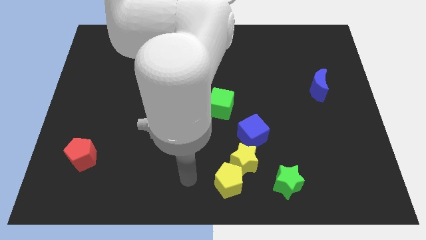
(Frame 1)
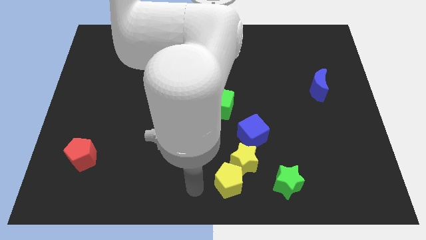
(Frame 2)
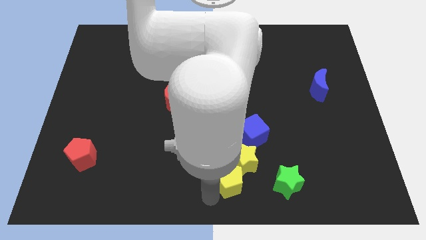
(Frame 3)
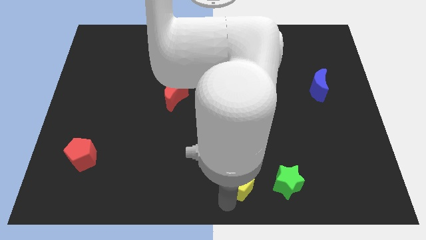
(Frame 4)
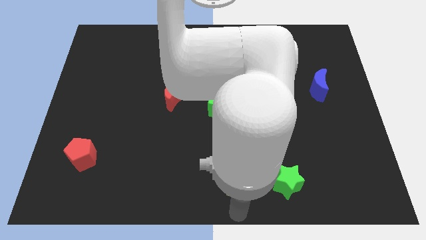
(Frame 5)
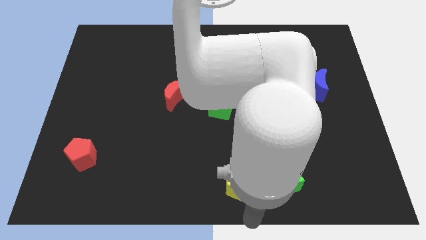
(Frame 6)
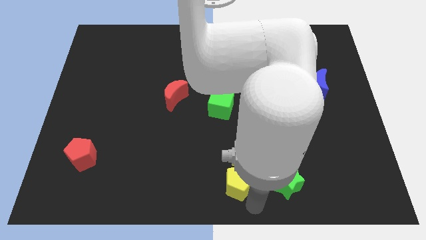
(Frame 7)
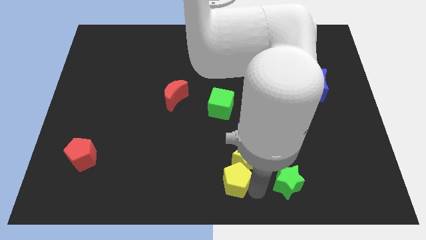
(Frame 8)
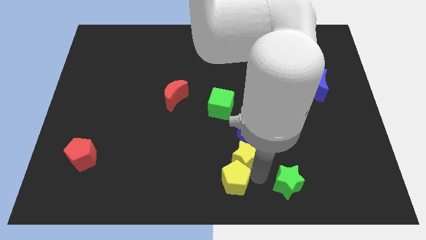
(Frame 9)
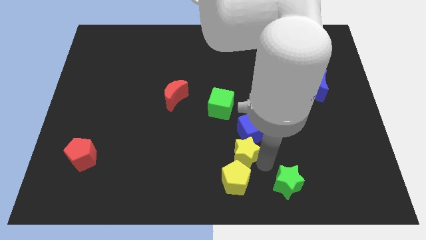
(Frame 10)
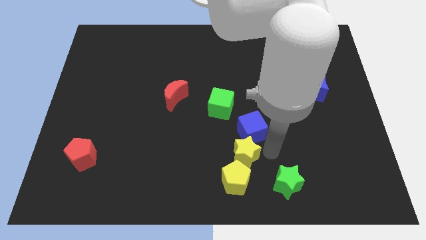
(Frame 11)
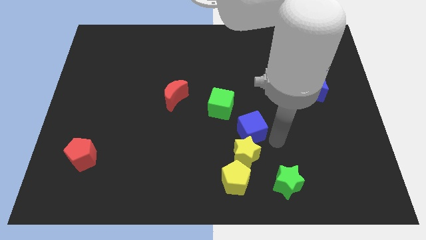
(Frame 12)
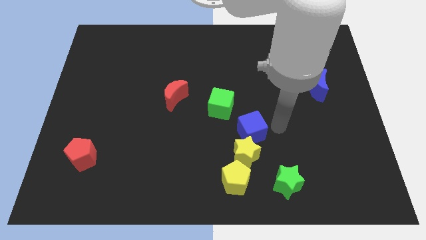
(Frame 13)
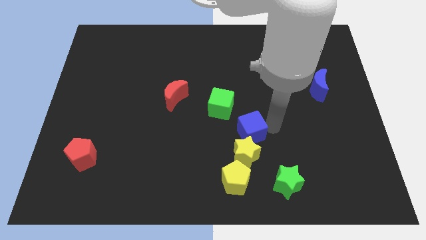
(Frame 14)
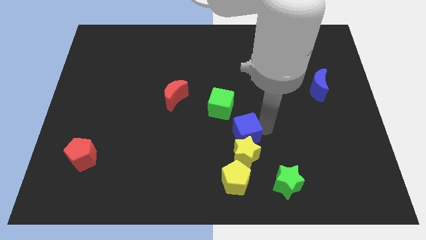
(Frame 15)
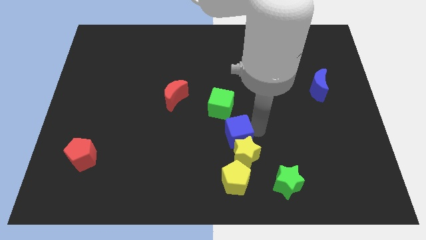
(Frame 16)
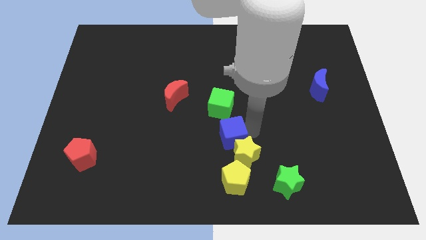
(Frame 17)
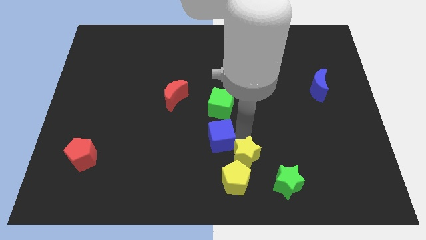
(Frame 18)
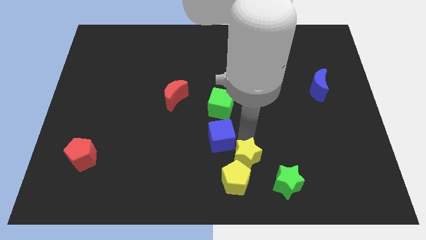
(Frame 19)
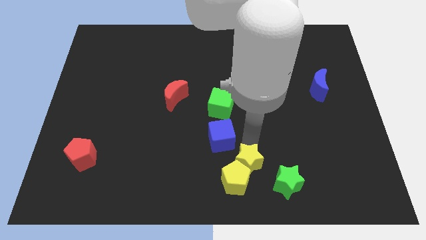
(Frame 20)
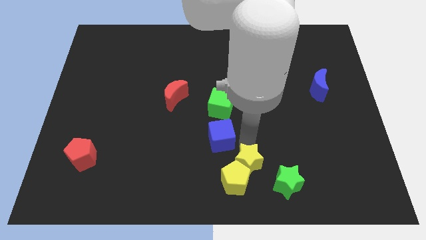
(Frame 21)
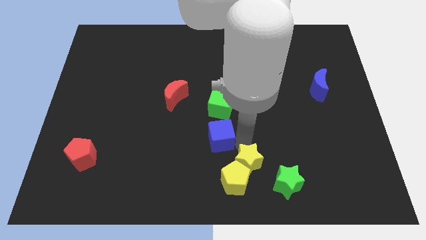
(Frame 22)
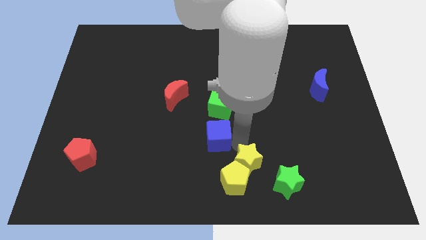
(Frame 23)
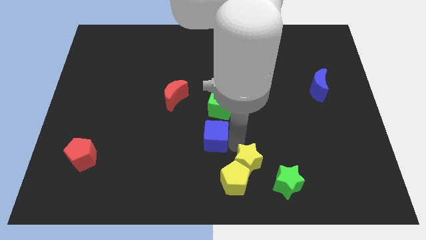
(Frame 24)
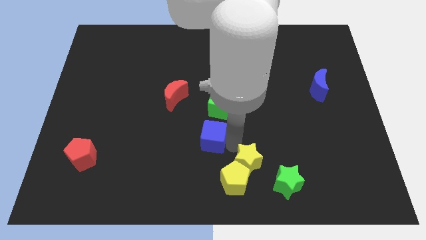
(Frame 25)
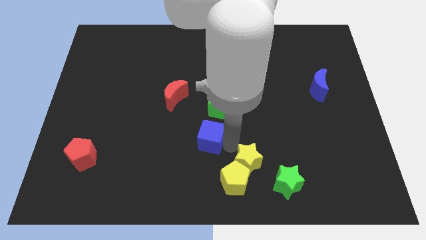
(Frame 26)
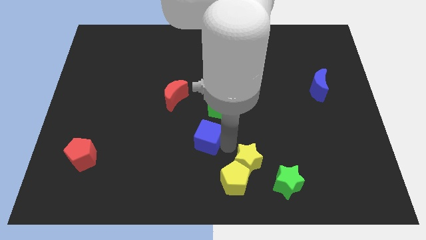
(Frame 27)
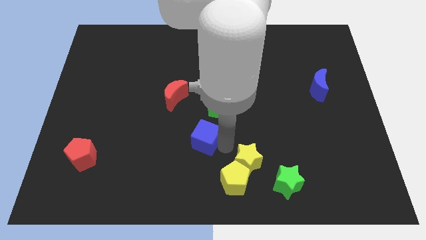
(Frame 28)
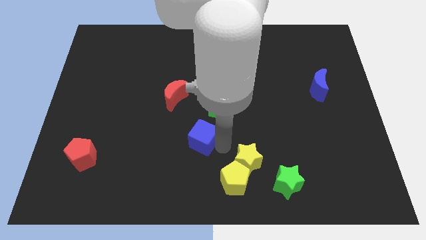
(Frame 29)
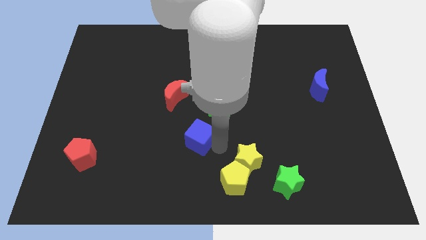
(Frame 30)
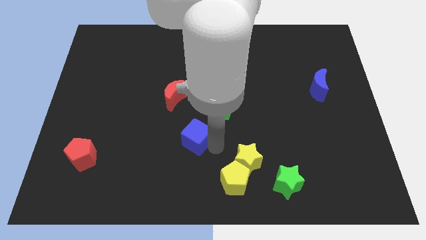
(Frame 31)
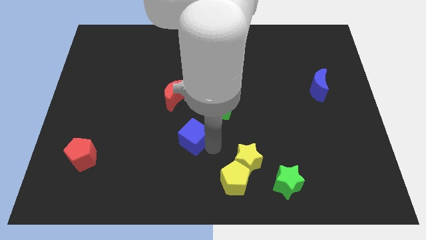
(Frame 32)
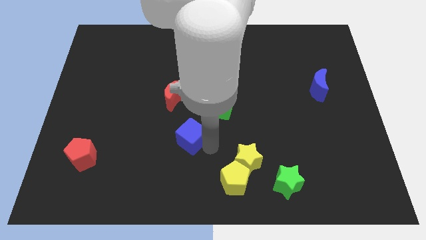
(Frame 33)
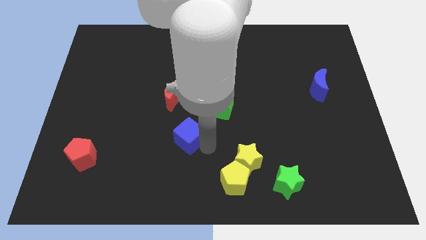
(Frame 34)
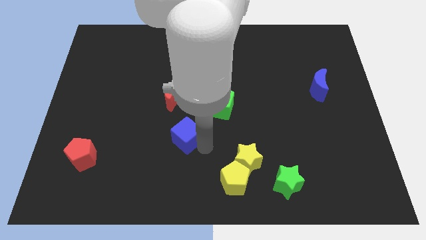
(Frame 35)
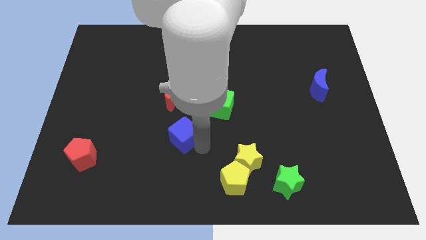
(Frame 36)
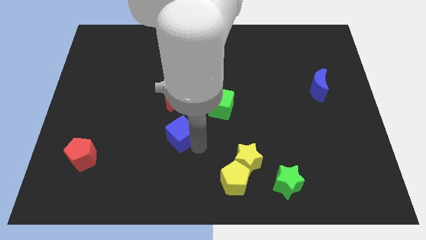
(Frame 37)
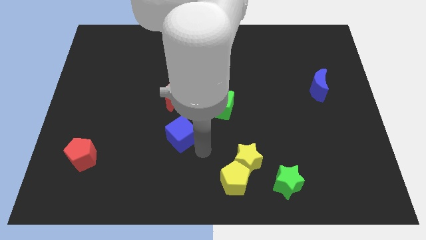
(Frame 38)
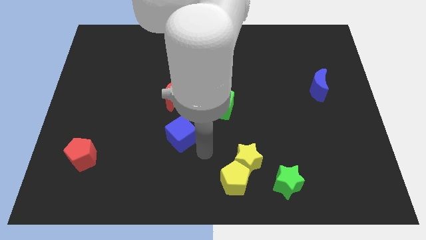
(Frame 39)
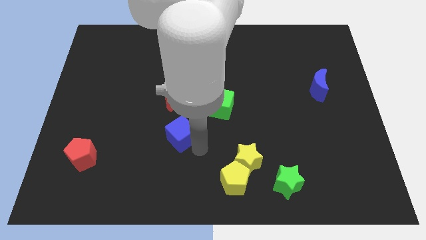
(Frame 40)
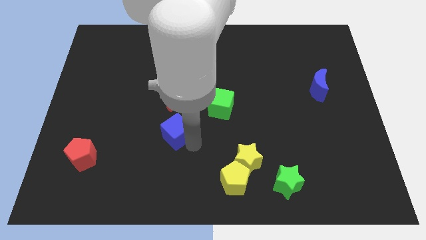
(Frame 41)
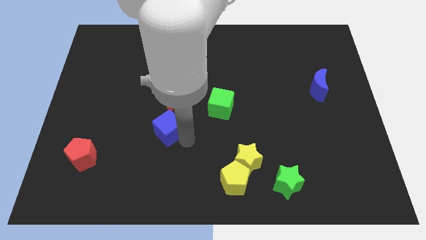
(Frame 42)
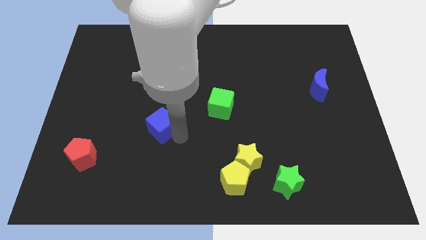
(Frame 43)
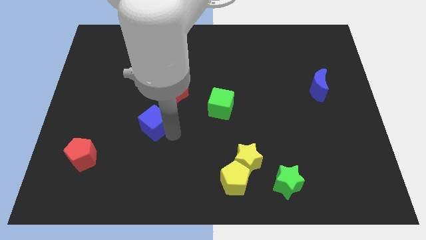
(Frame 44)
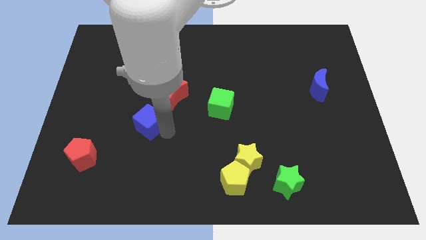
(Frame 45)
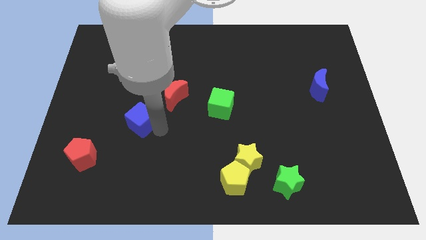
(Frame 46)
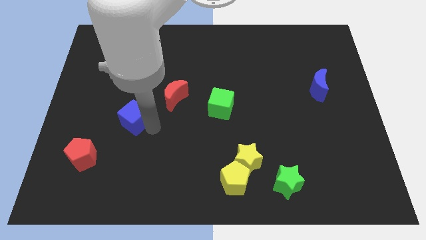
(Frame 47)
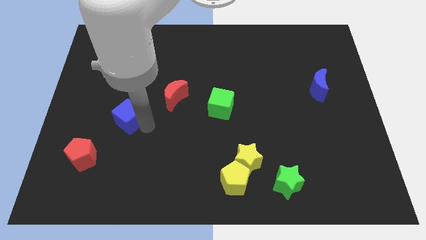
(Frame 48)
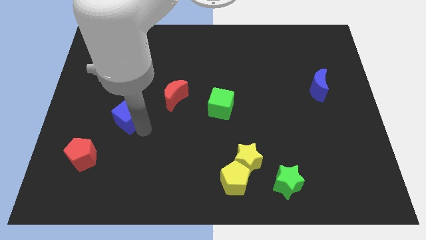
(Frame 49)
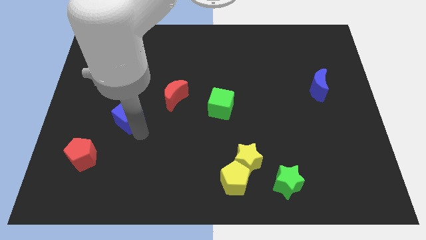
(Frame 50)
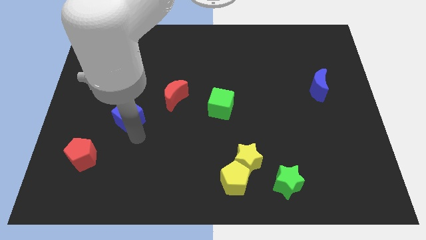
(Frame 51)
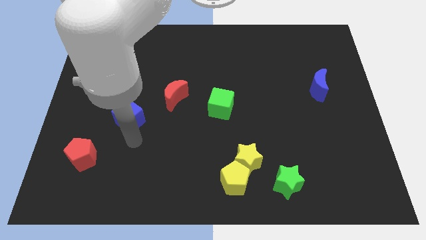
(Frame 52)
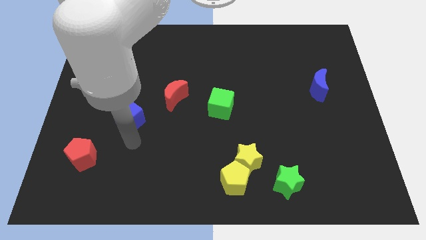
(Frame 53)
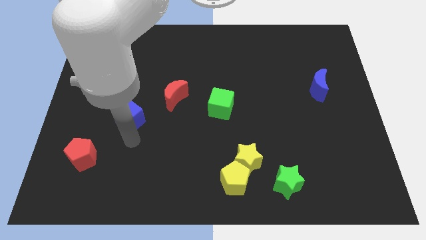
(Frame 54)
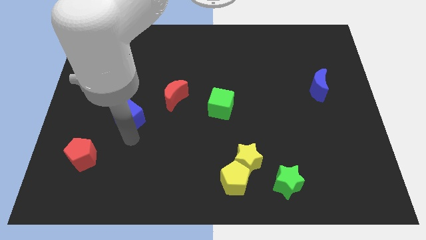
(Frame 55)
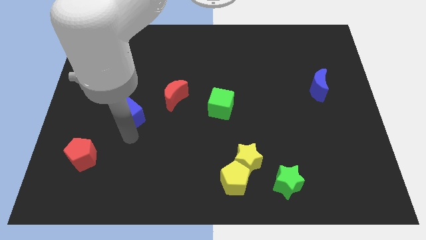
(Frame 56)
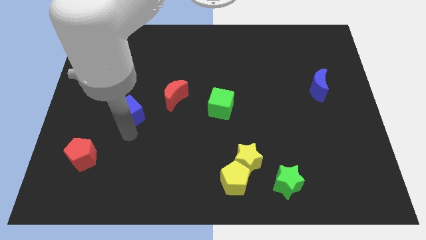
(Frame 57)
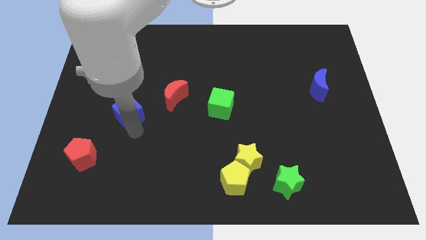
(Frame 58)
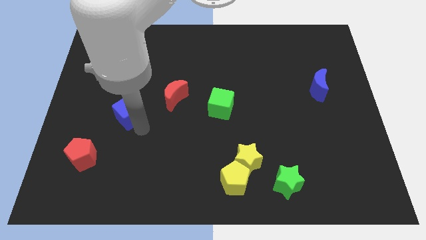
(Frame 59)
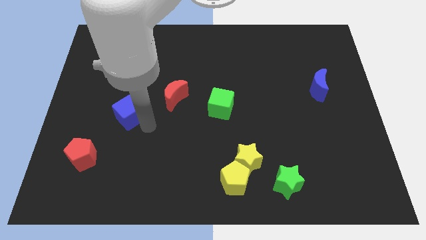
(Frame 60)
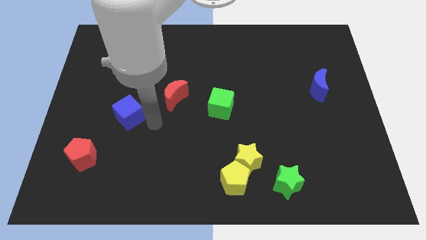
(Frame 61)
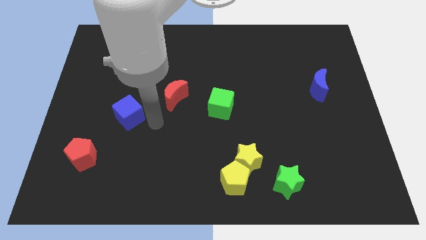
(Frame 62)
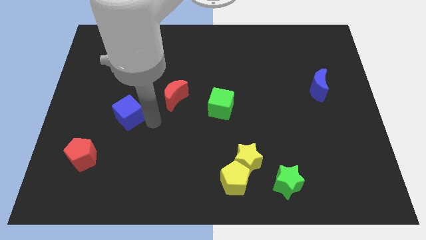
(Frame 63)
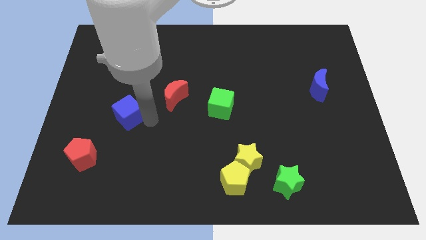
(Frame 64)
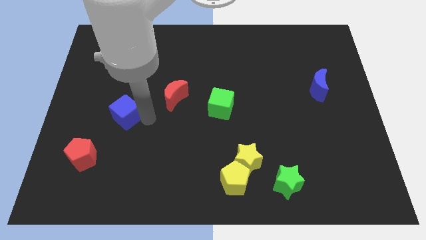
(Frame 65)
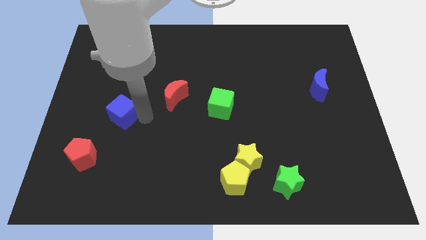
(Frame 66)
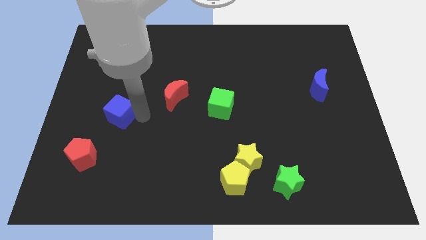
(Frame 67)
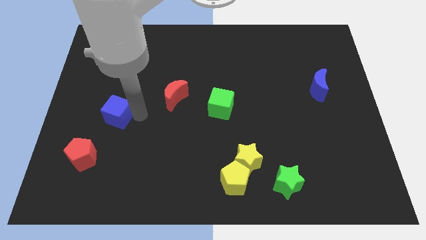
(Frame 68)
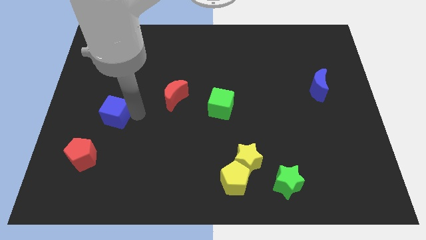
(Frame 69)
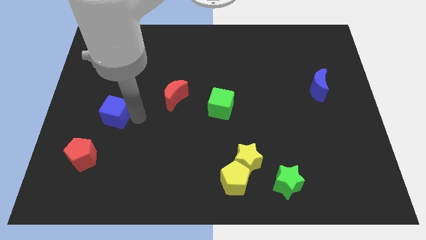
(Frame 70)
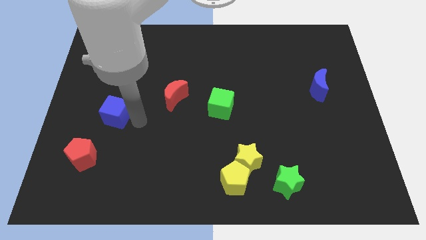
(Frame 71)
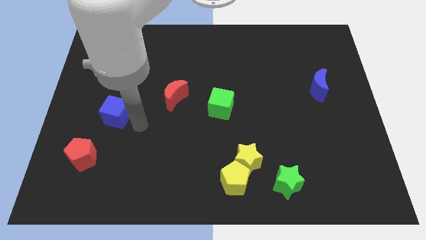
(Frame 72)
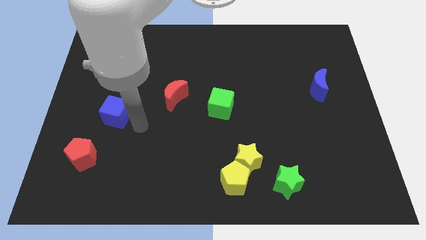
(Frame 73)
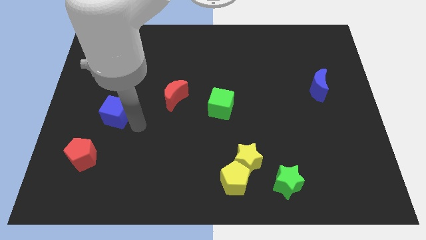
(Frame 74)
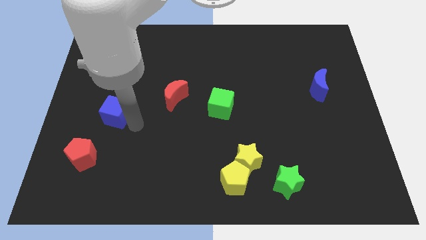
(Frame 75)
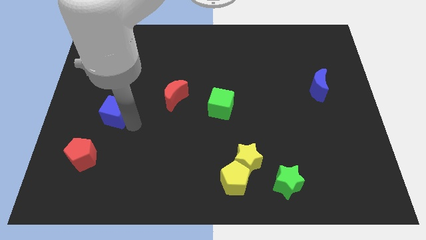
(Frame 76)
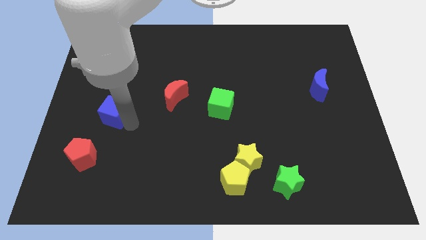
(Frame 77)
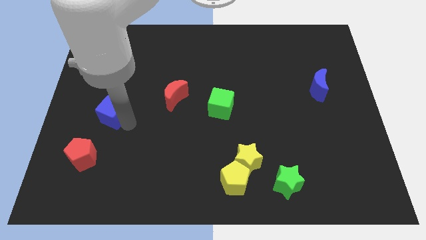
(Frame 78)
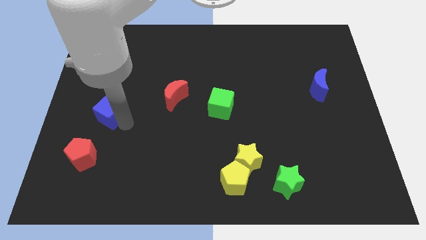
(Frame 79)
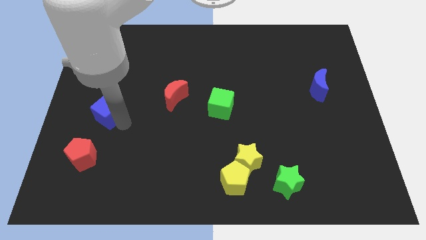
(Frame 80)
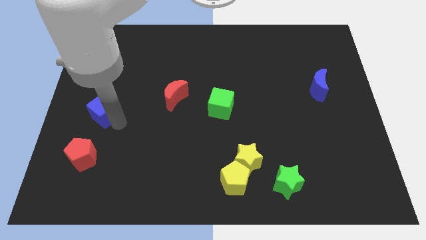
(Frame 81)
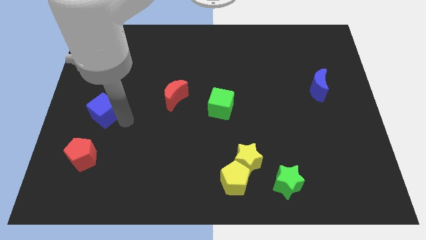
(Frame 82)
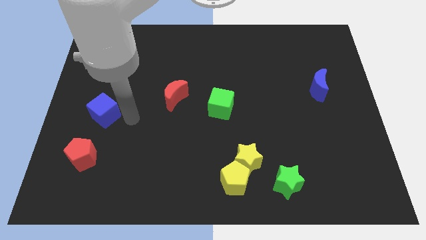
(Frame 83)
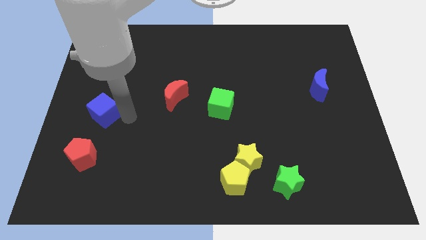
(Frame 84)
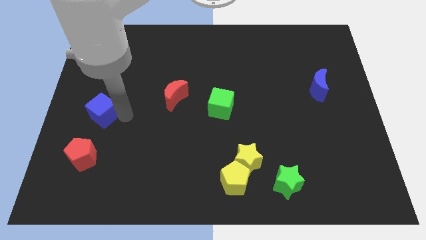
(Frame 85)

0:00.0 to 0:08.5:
move the blue cube to the left side
